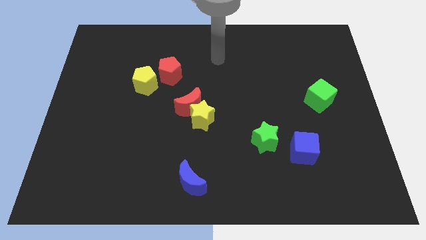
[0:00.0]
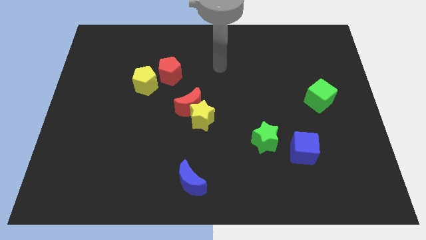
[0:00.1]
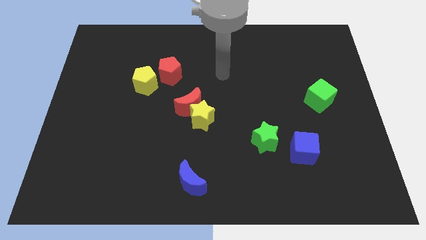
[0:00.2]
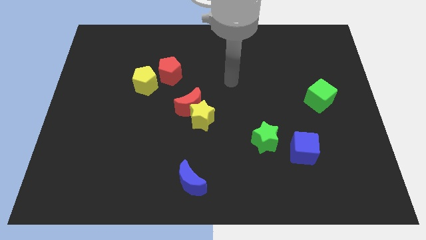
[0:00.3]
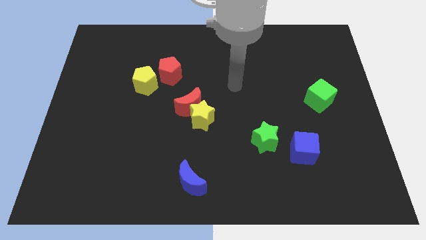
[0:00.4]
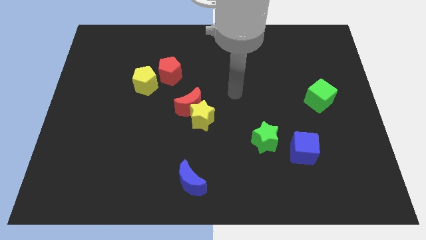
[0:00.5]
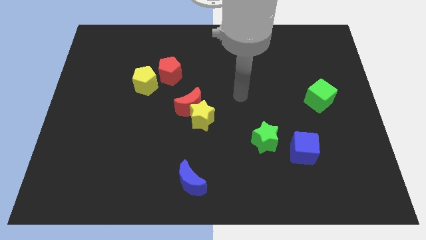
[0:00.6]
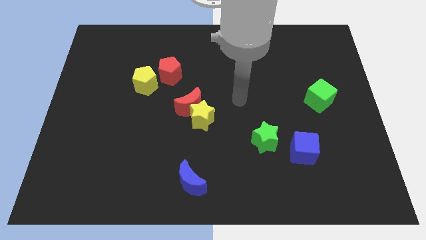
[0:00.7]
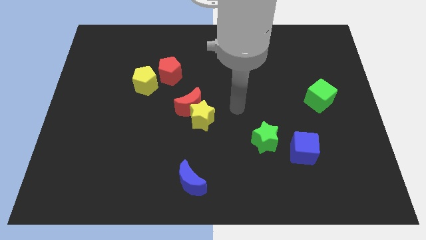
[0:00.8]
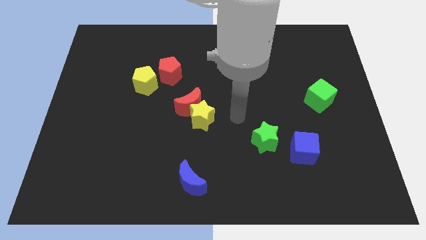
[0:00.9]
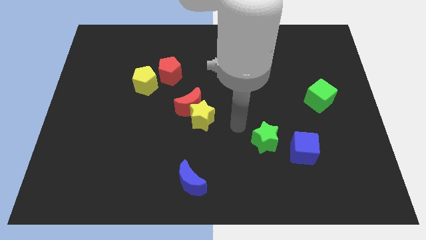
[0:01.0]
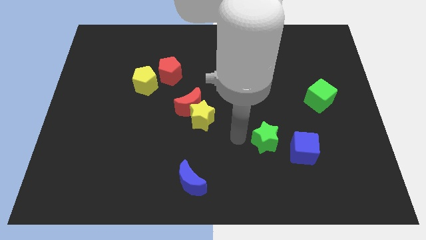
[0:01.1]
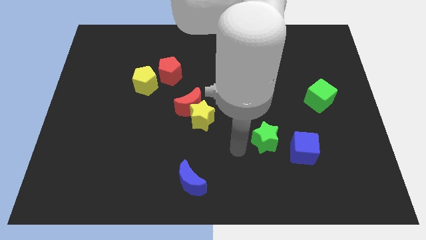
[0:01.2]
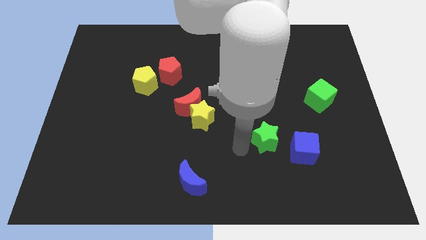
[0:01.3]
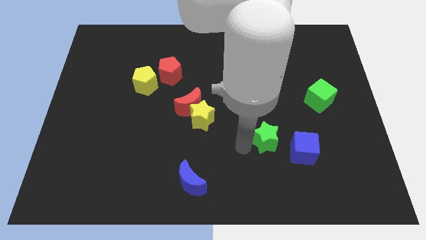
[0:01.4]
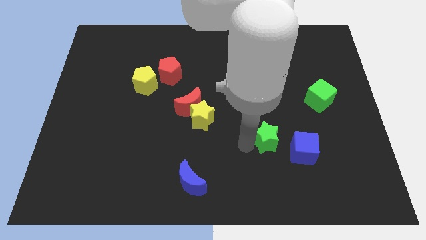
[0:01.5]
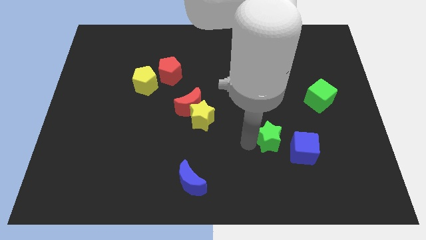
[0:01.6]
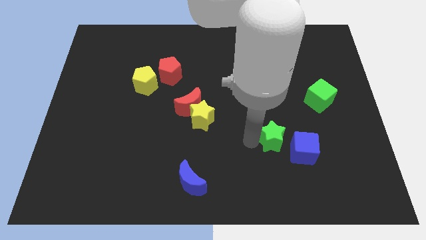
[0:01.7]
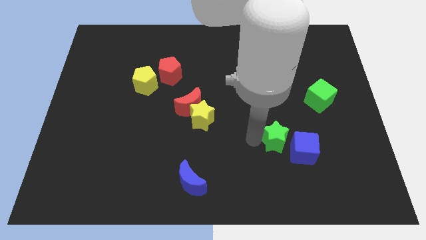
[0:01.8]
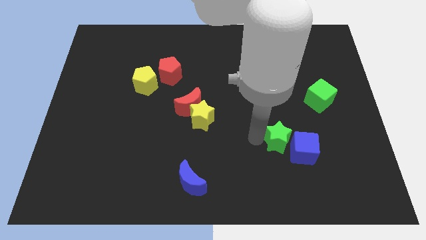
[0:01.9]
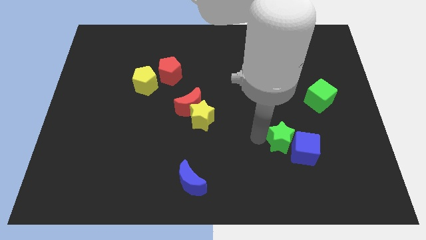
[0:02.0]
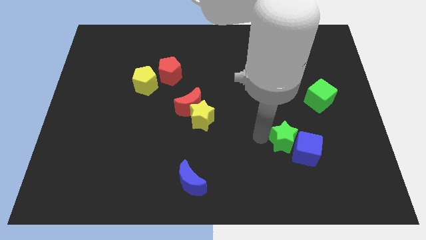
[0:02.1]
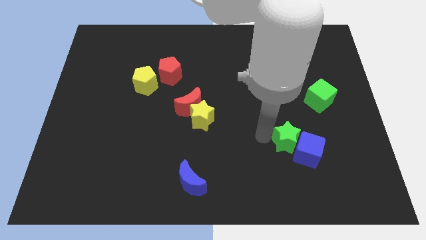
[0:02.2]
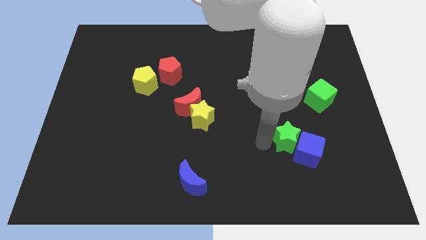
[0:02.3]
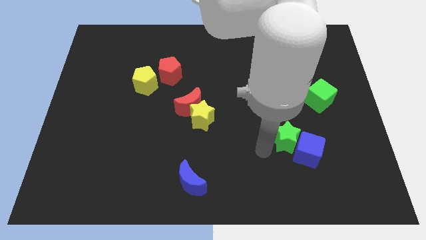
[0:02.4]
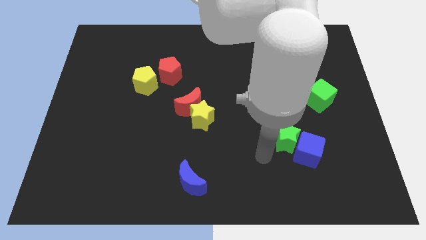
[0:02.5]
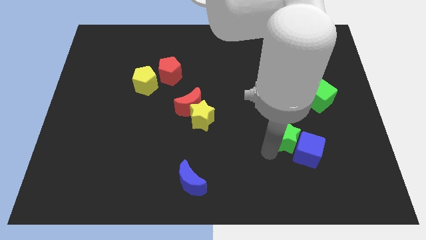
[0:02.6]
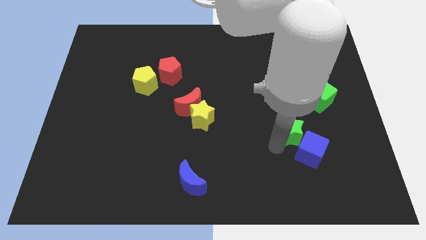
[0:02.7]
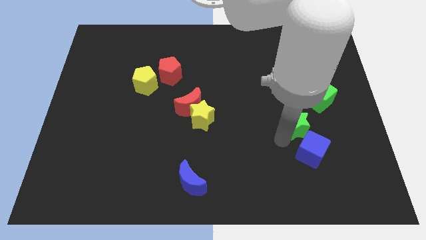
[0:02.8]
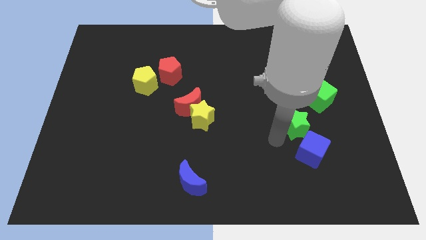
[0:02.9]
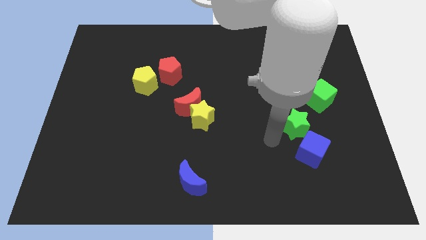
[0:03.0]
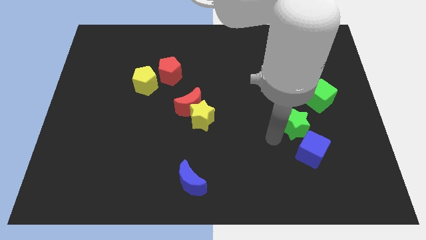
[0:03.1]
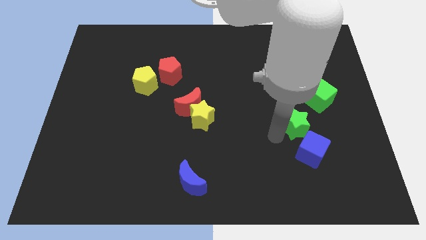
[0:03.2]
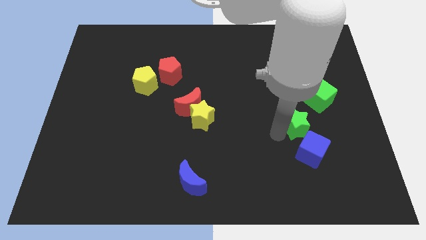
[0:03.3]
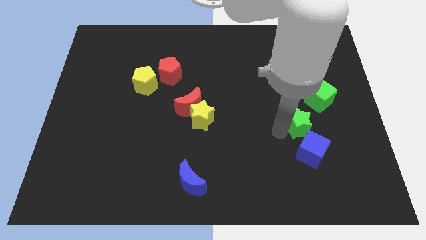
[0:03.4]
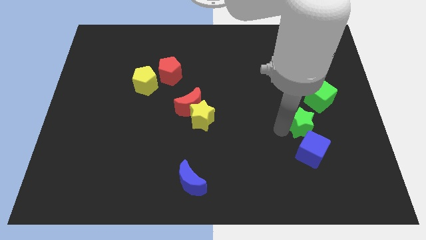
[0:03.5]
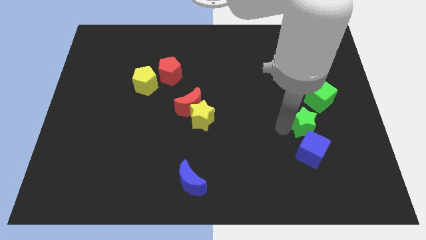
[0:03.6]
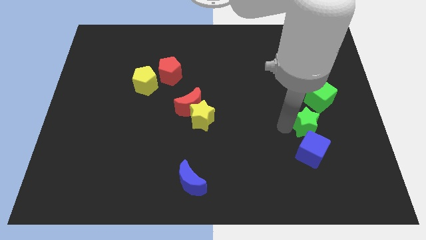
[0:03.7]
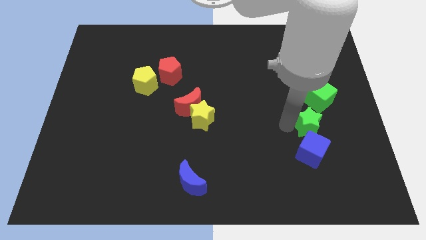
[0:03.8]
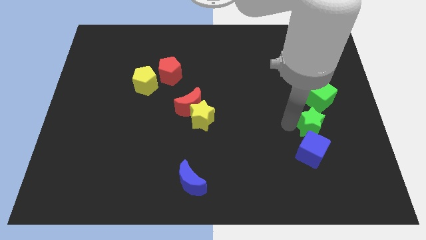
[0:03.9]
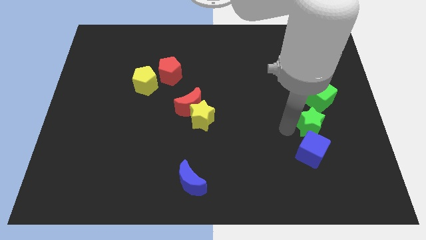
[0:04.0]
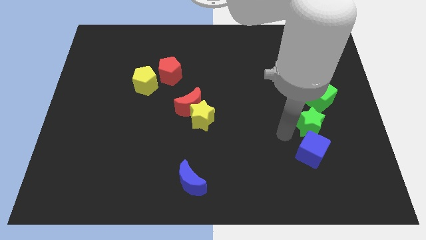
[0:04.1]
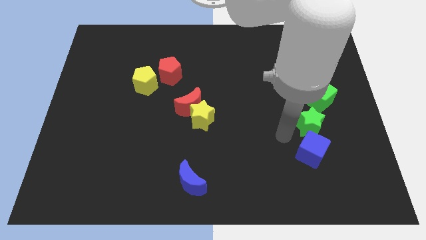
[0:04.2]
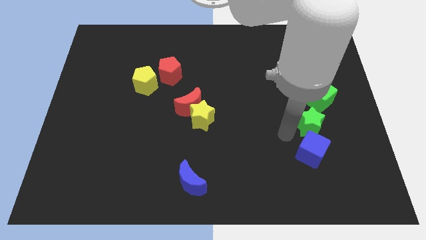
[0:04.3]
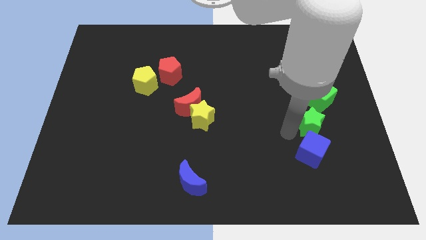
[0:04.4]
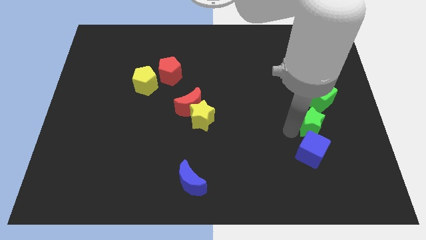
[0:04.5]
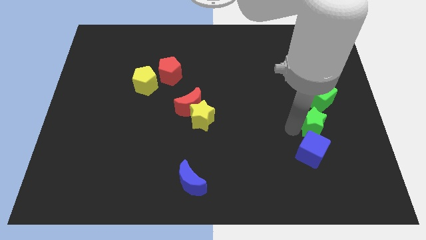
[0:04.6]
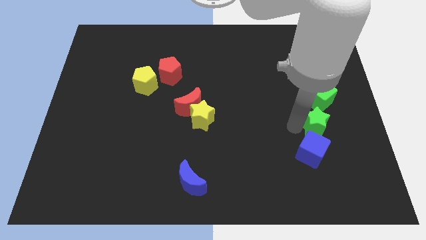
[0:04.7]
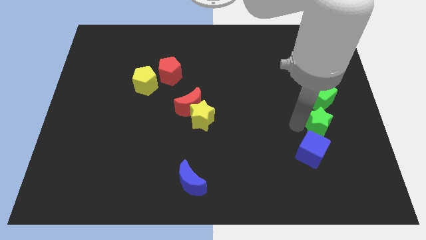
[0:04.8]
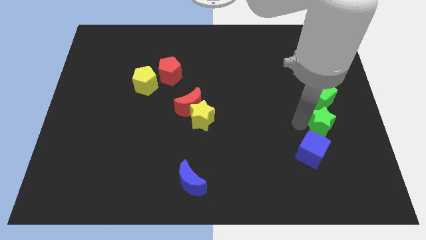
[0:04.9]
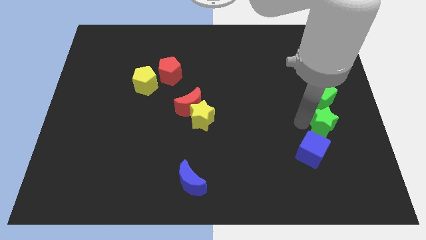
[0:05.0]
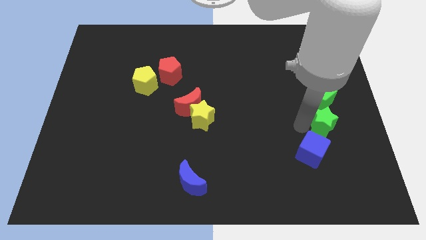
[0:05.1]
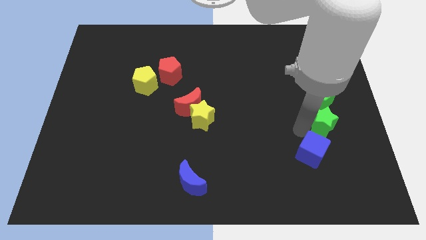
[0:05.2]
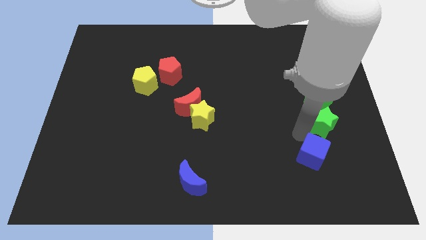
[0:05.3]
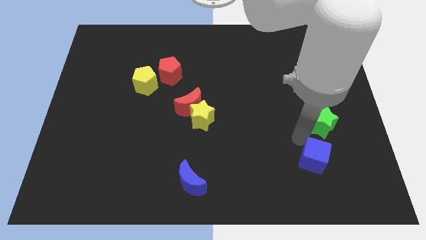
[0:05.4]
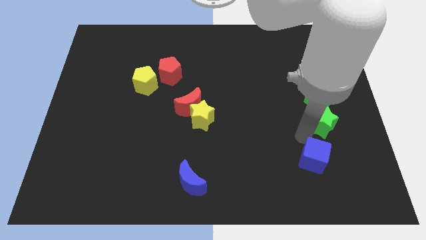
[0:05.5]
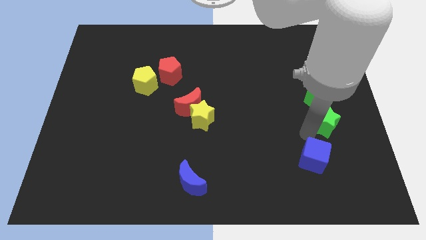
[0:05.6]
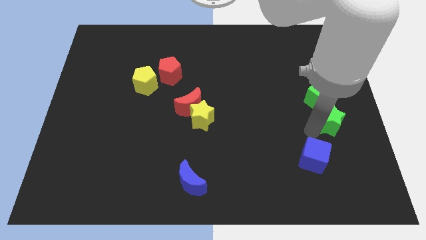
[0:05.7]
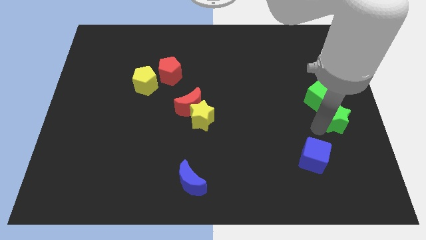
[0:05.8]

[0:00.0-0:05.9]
move the green star to the right side of the board

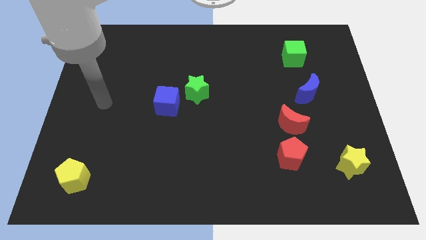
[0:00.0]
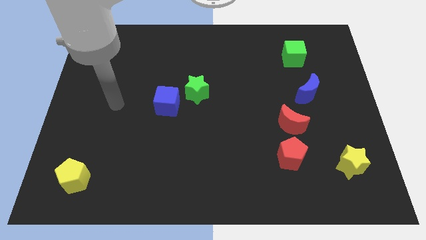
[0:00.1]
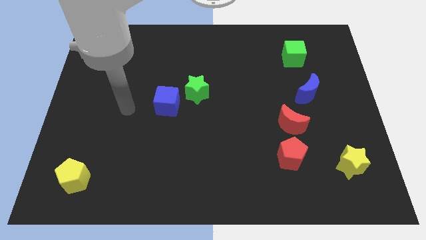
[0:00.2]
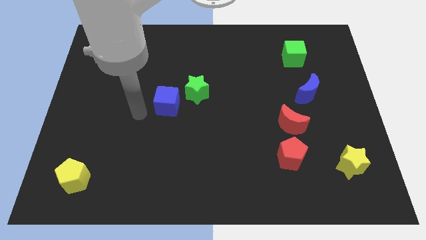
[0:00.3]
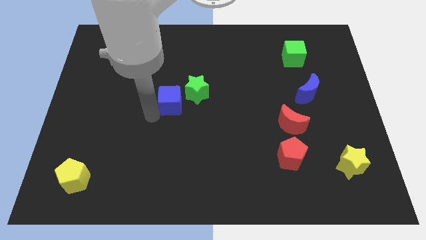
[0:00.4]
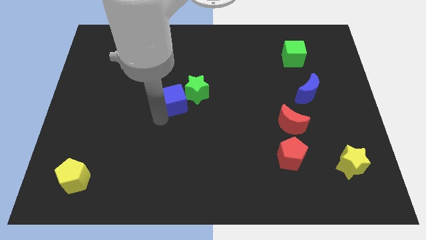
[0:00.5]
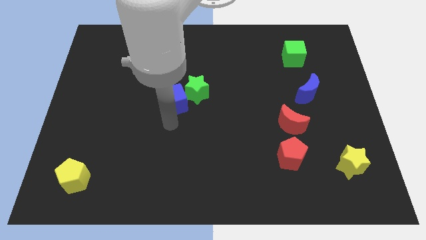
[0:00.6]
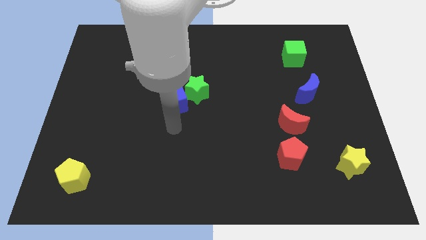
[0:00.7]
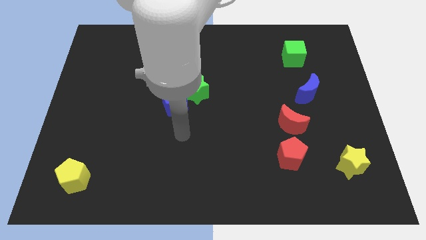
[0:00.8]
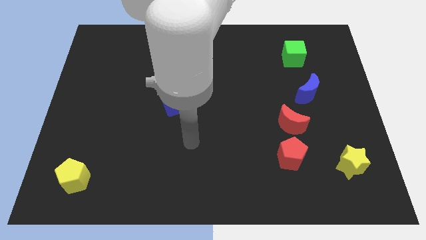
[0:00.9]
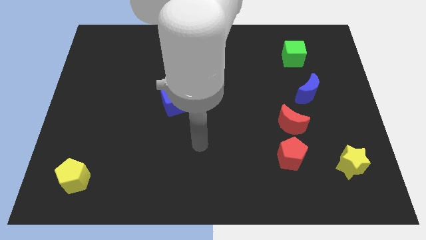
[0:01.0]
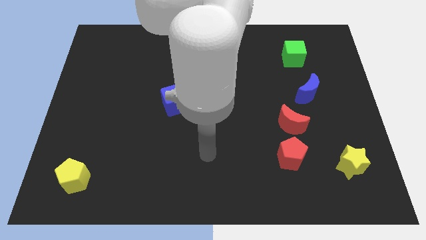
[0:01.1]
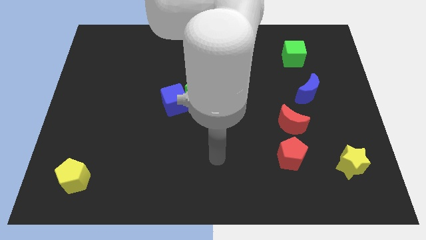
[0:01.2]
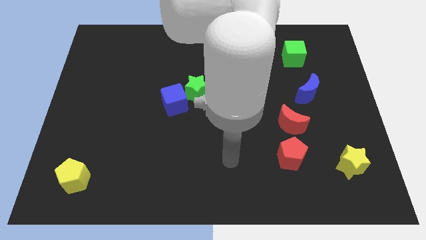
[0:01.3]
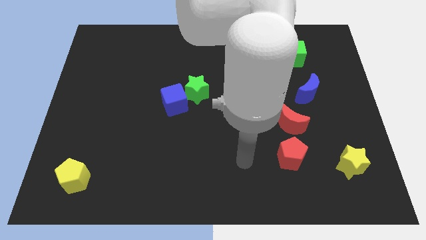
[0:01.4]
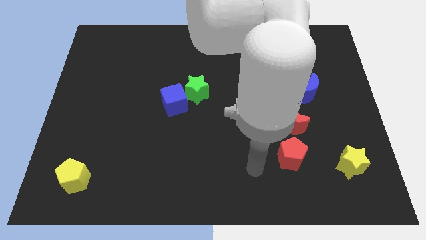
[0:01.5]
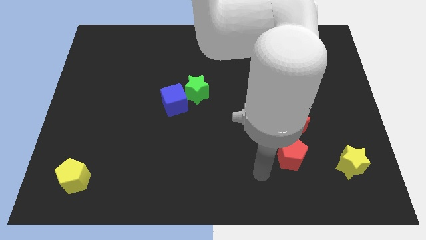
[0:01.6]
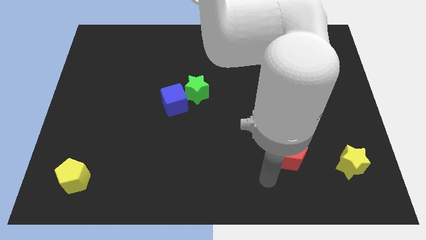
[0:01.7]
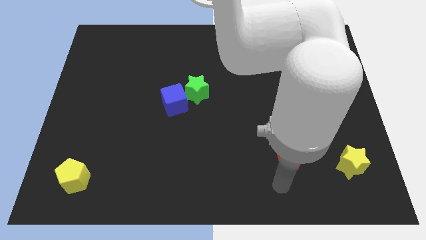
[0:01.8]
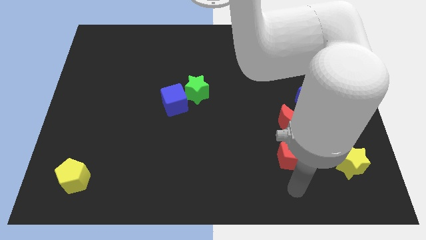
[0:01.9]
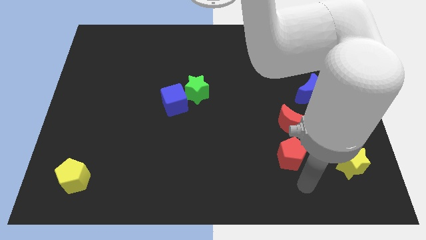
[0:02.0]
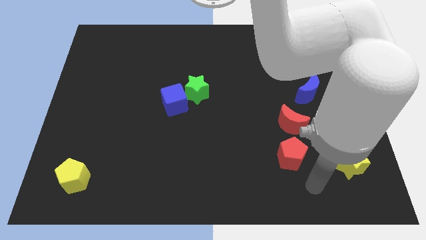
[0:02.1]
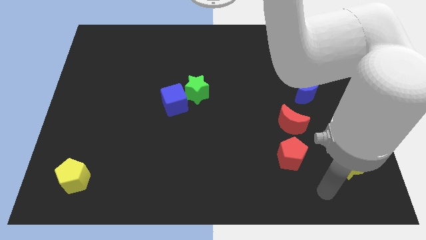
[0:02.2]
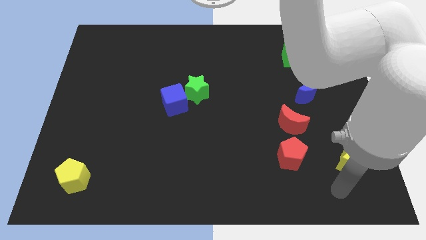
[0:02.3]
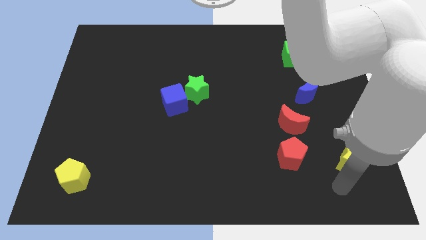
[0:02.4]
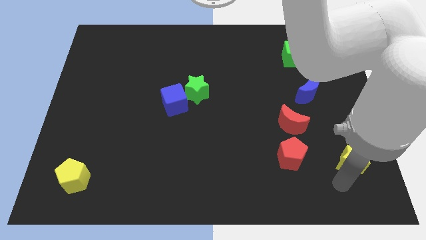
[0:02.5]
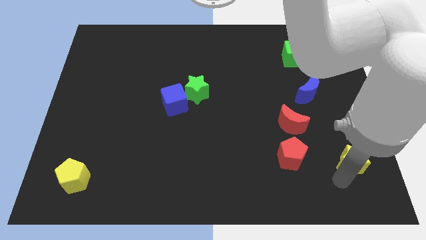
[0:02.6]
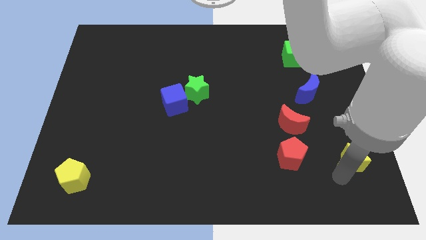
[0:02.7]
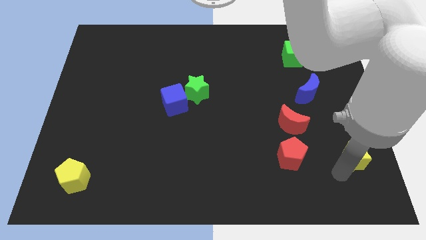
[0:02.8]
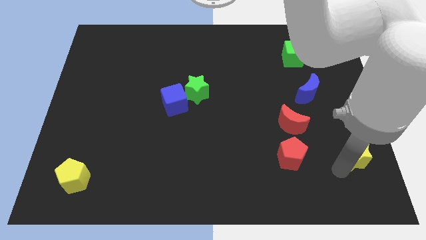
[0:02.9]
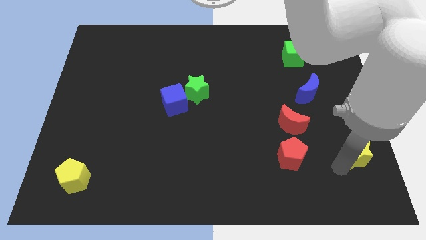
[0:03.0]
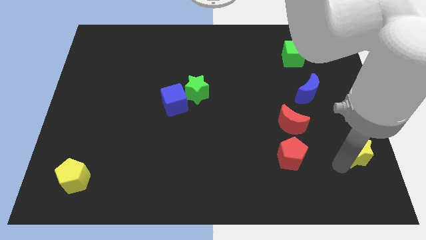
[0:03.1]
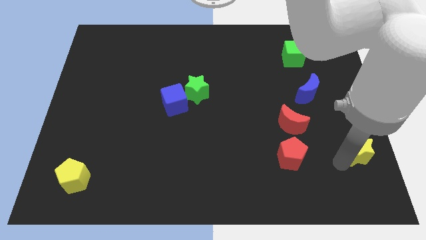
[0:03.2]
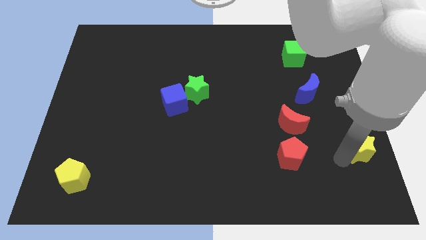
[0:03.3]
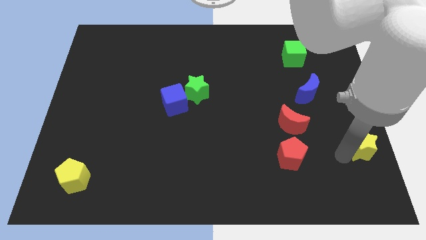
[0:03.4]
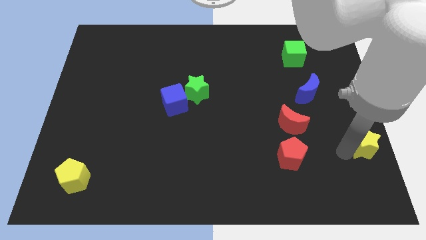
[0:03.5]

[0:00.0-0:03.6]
slide the yellow star to the right side of the board
